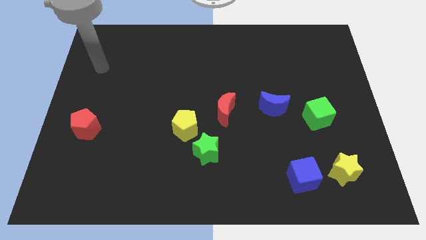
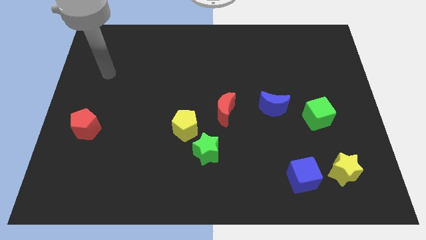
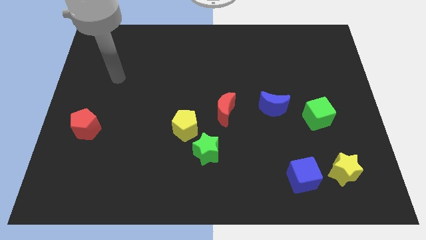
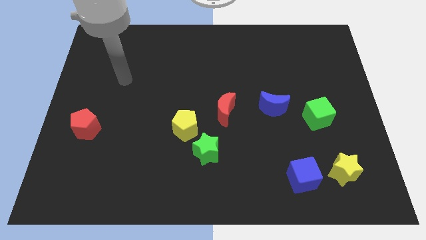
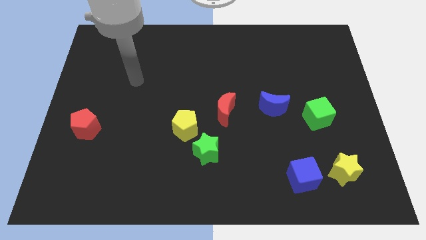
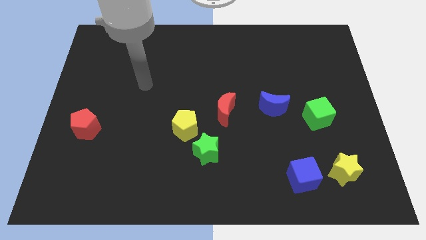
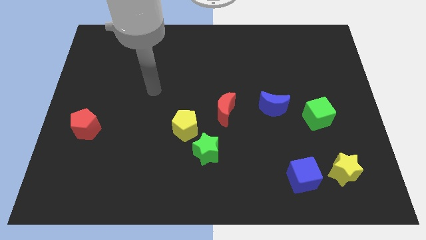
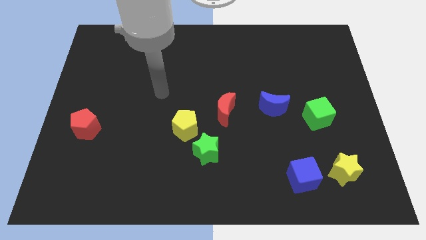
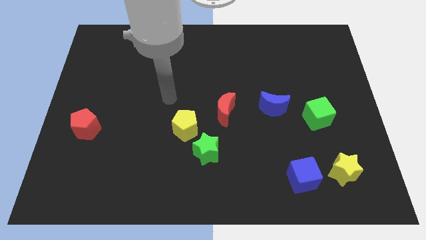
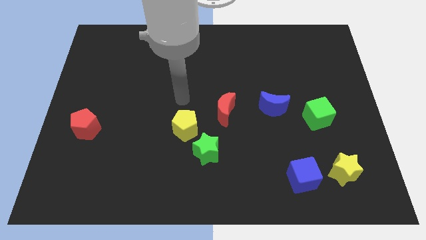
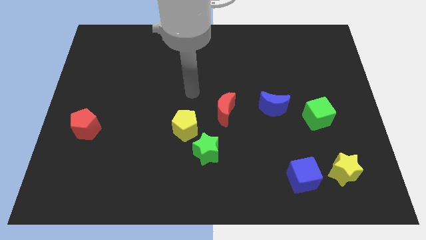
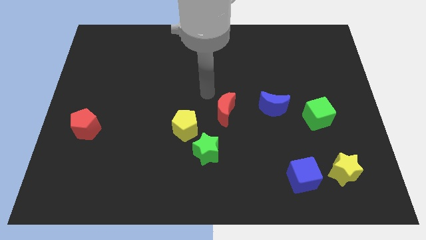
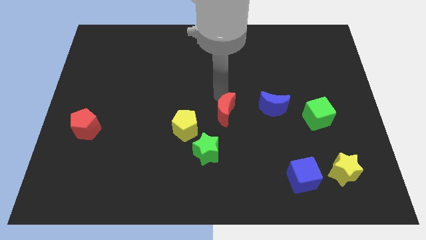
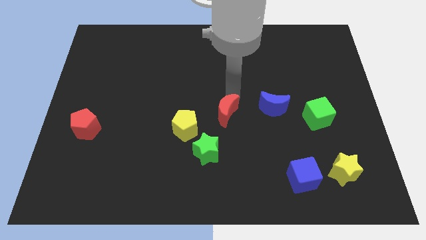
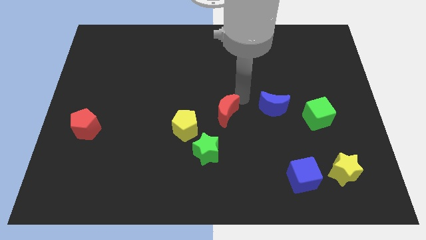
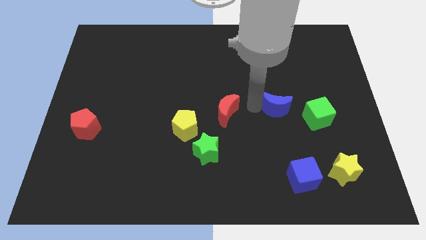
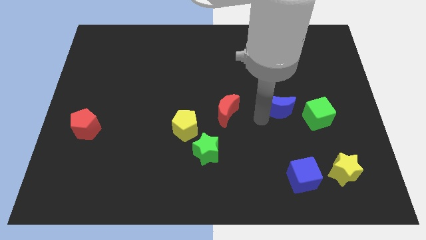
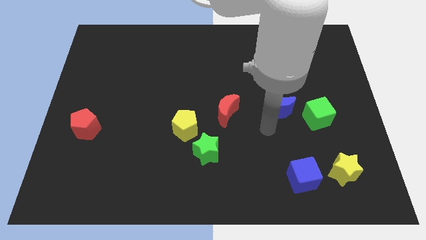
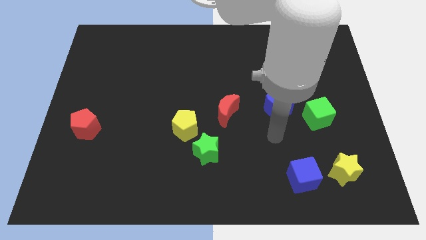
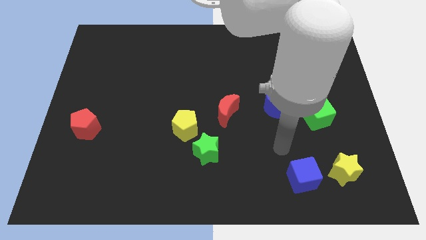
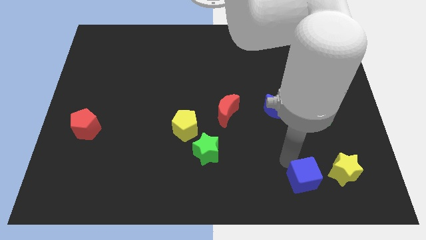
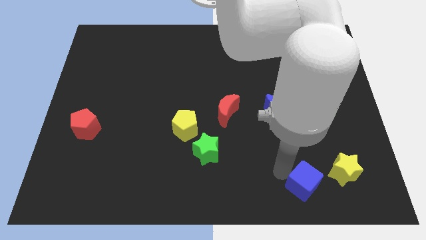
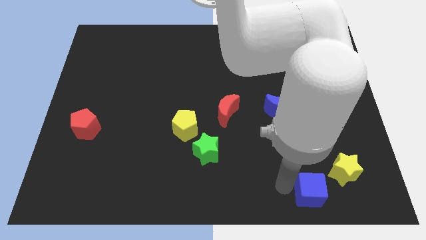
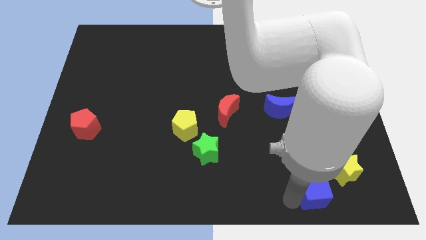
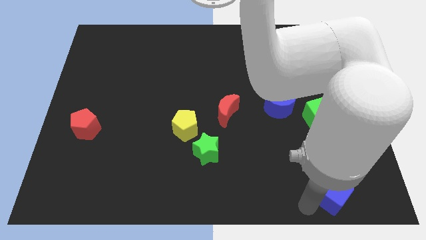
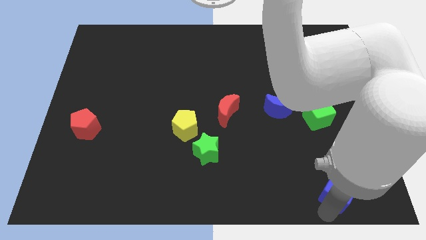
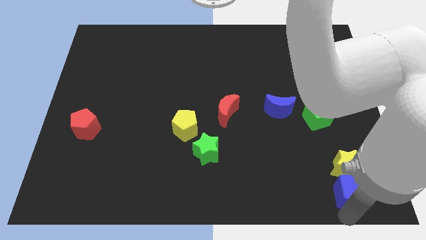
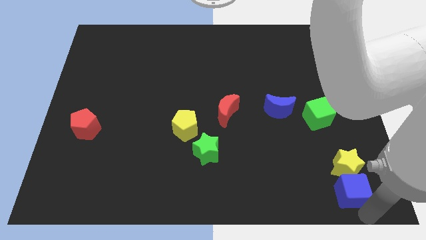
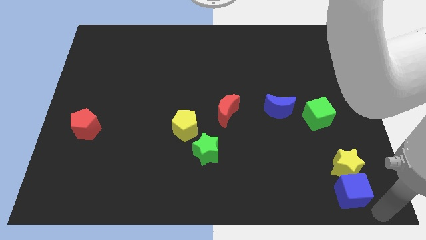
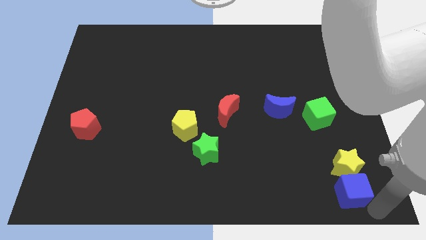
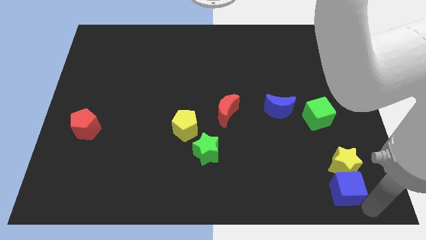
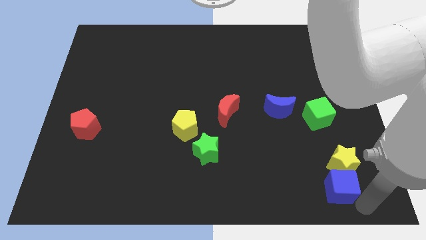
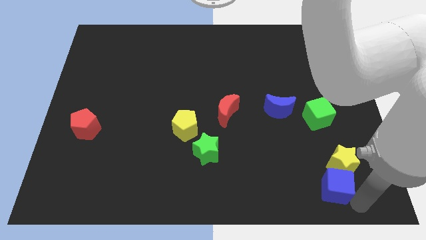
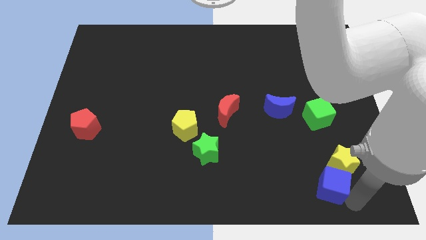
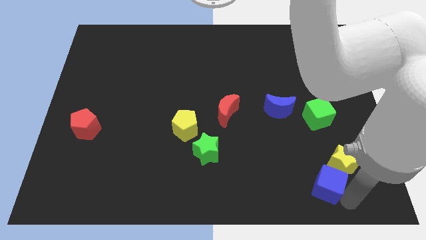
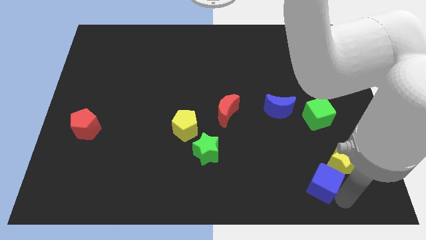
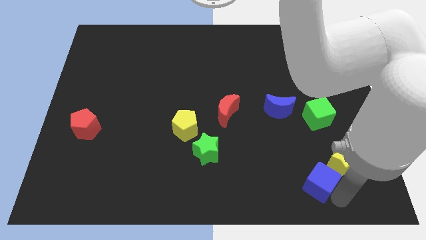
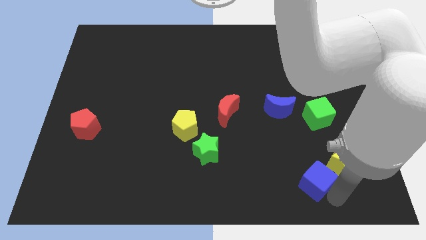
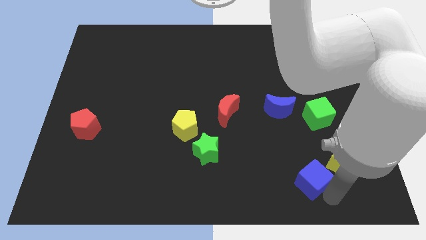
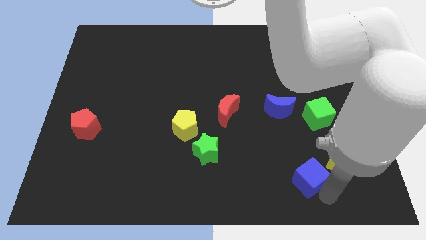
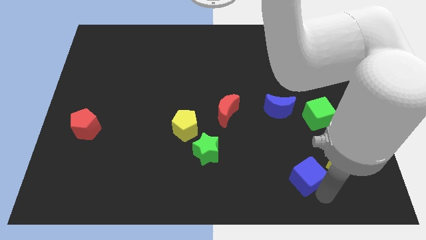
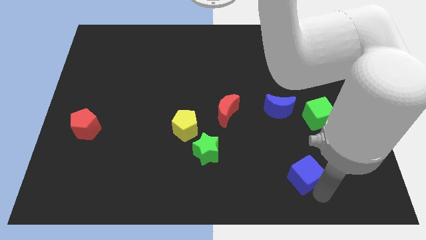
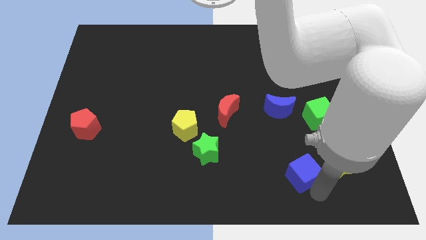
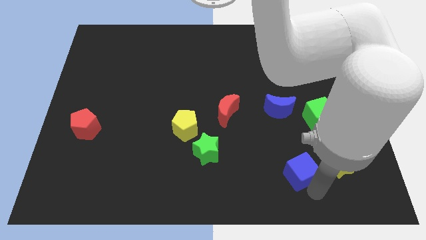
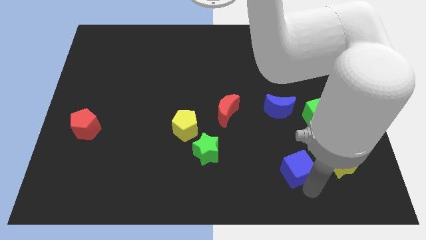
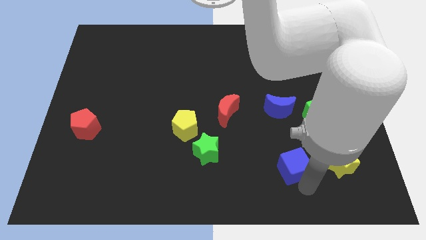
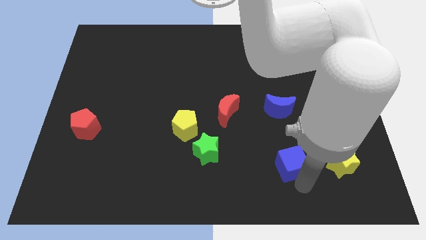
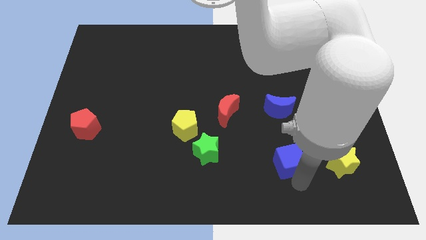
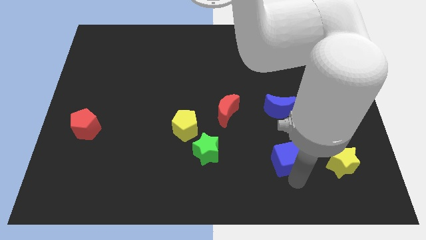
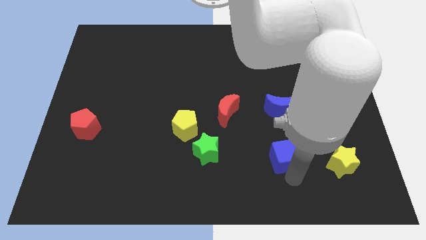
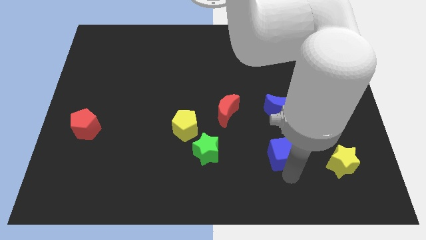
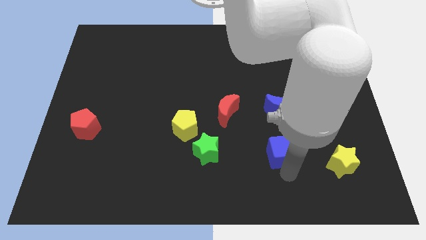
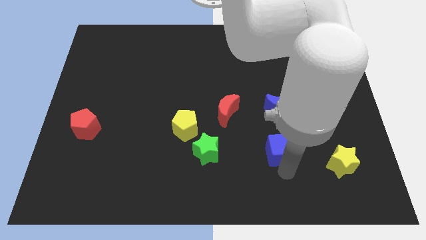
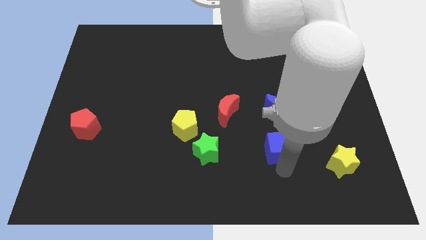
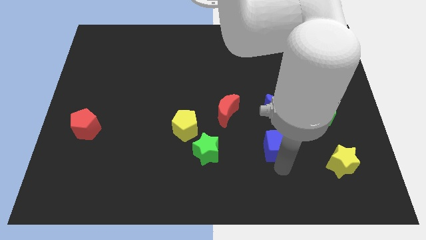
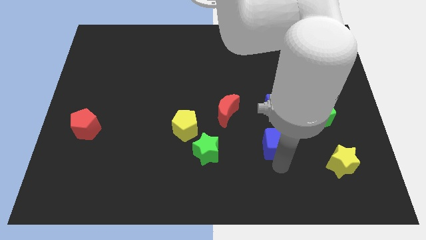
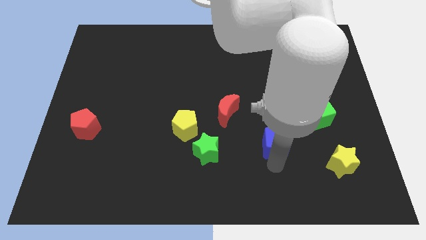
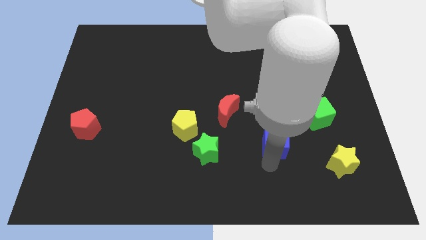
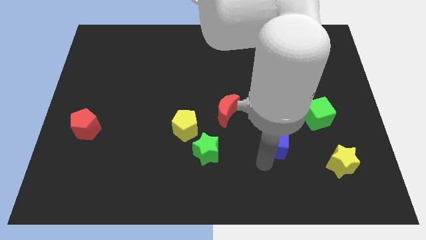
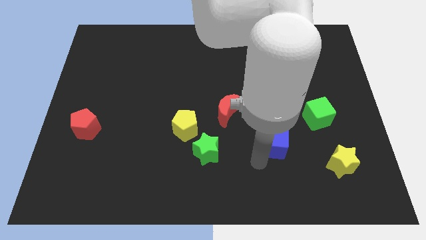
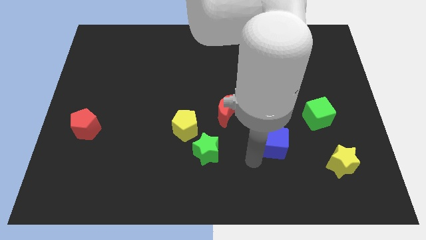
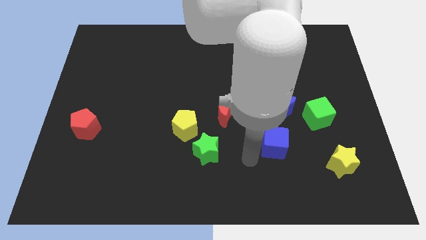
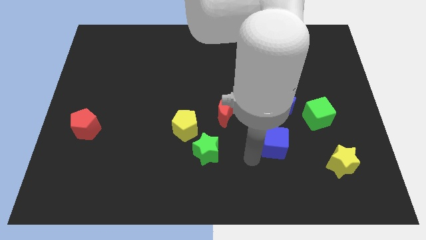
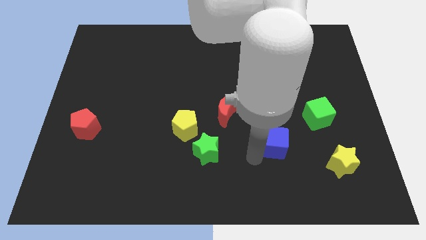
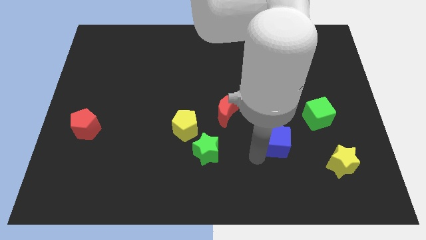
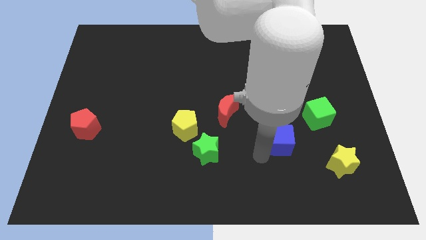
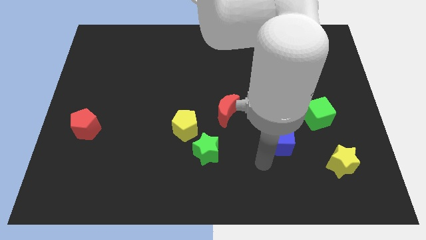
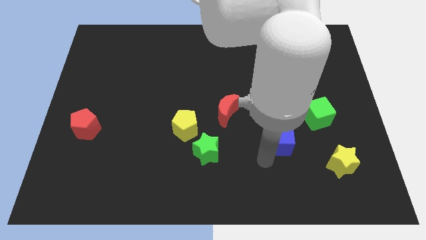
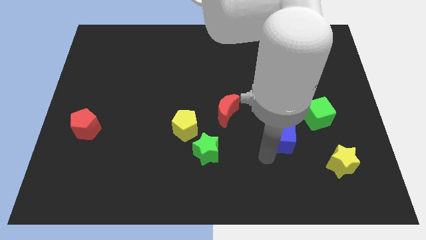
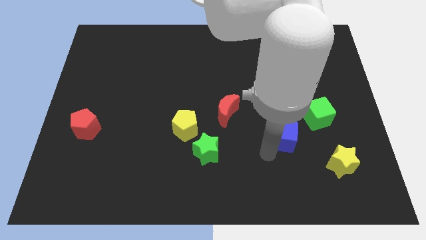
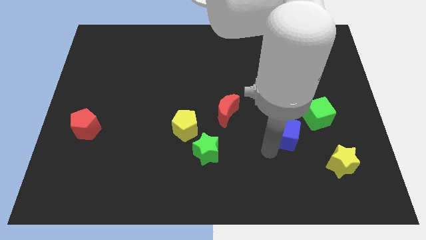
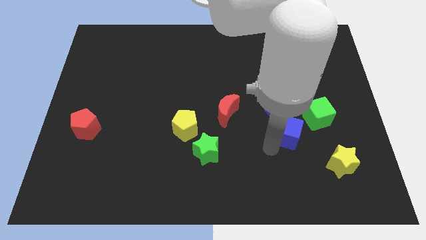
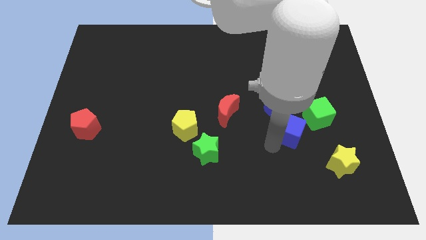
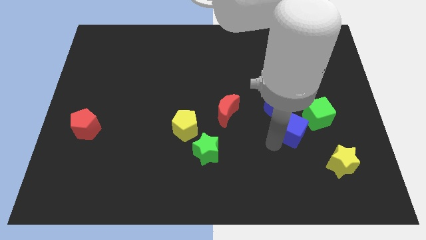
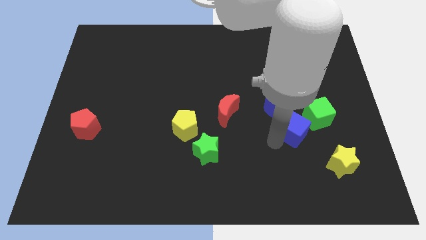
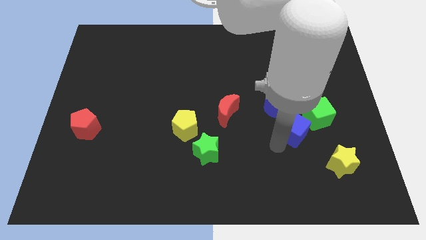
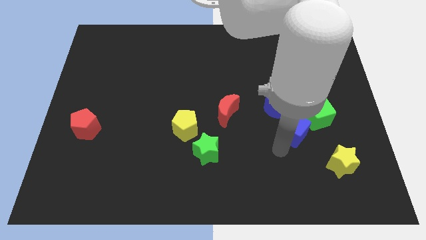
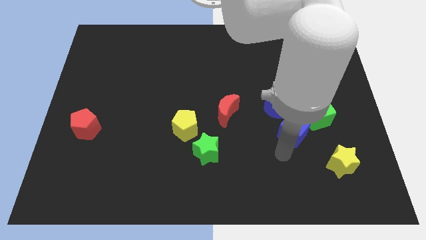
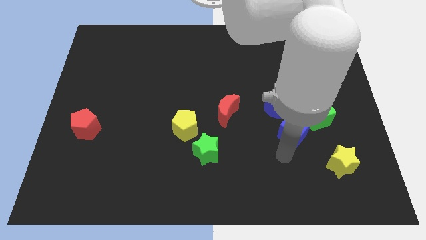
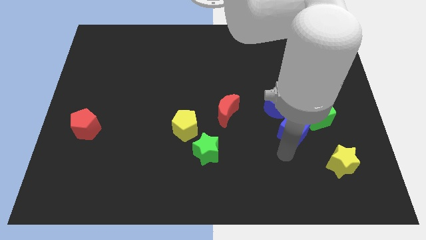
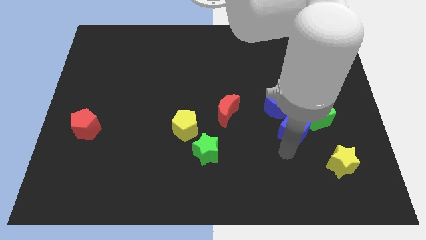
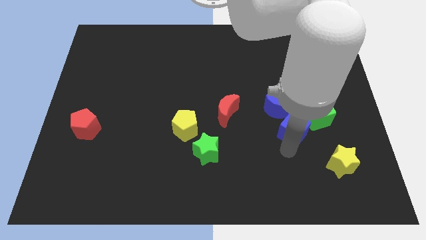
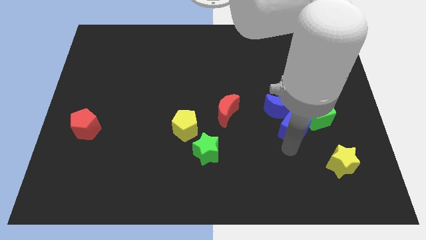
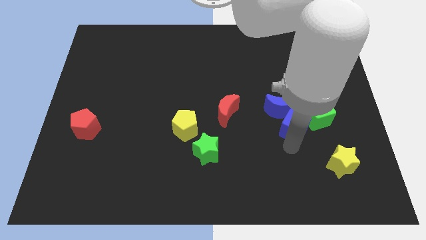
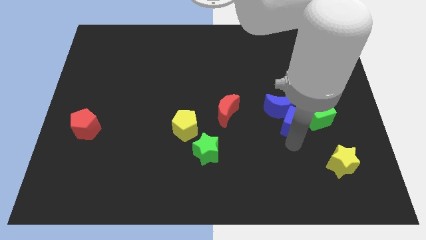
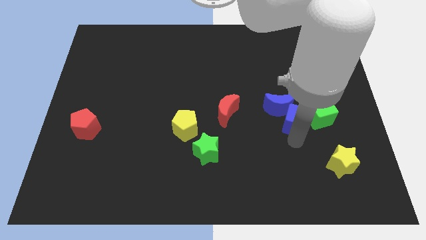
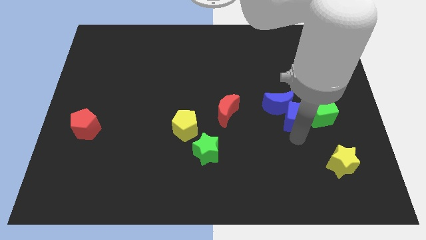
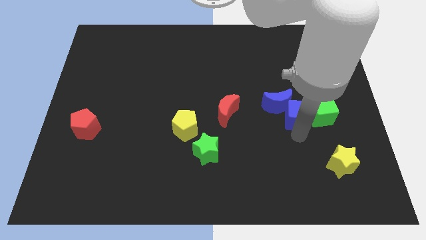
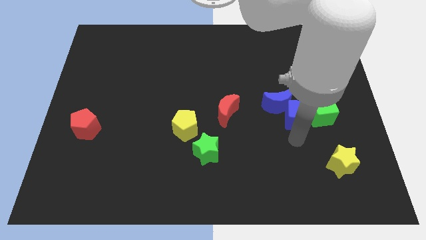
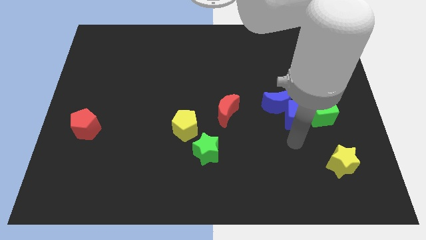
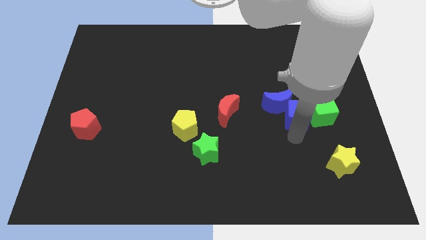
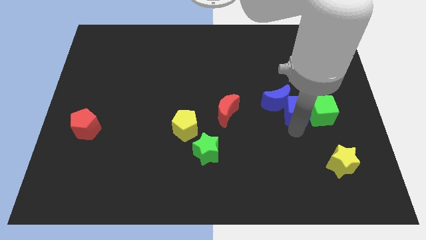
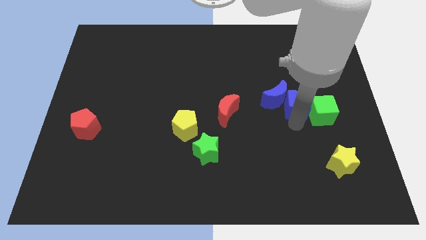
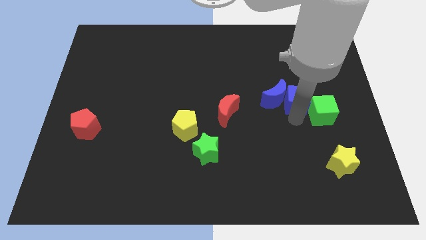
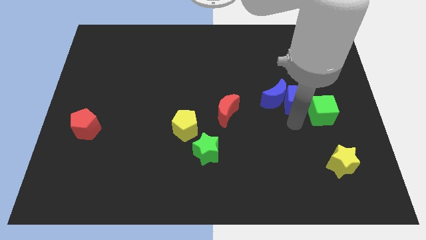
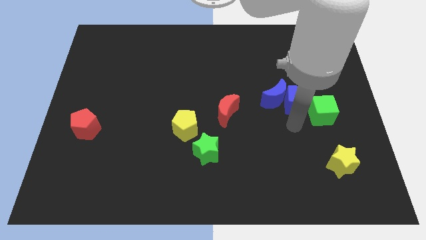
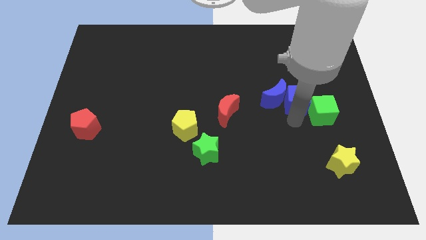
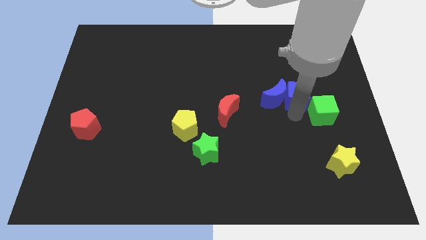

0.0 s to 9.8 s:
move the blue cube up
